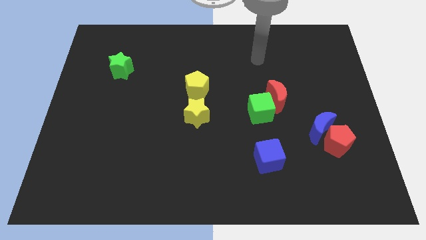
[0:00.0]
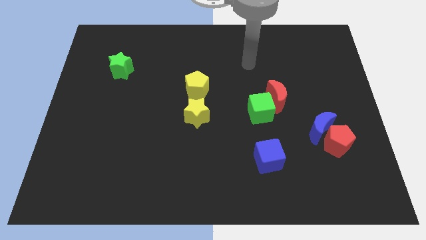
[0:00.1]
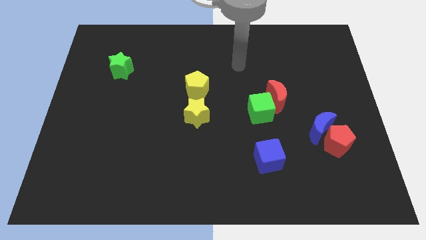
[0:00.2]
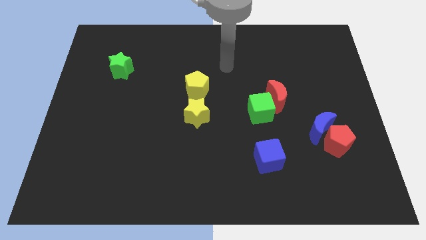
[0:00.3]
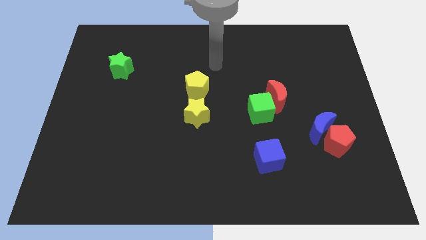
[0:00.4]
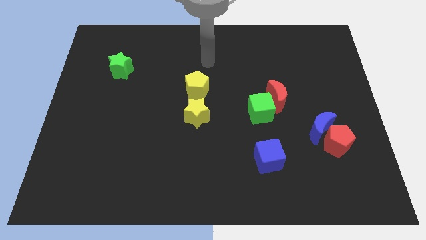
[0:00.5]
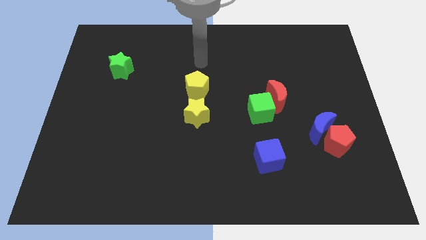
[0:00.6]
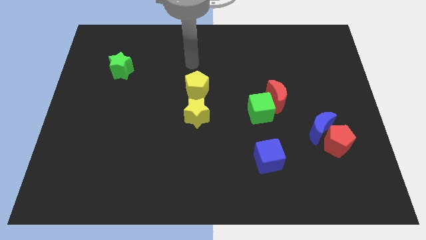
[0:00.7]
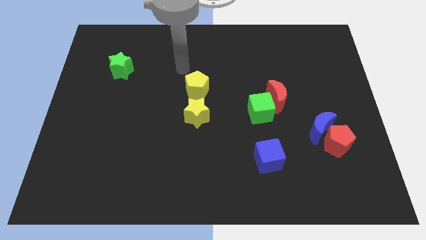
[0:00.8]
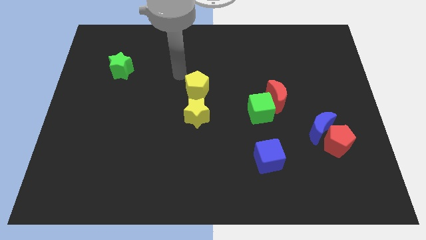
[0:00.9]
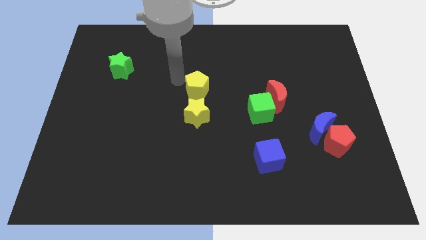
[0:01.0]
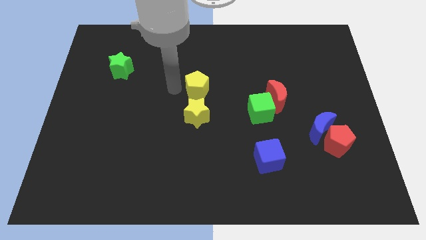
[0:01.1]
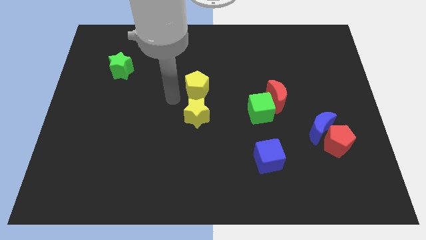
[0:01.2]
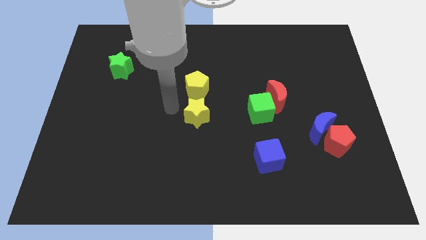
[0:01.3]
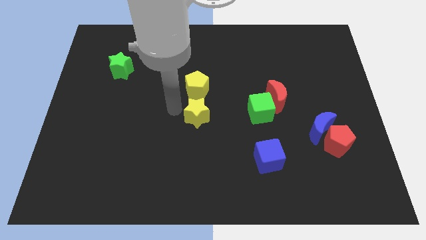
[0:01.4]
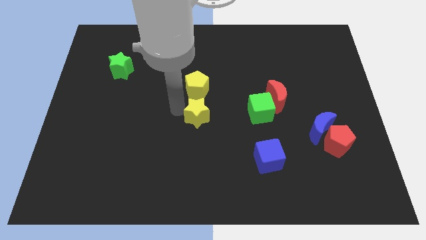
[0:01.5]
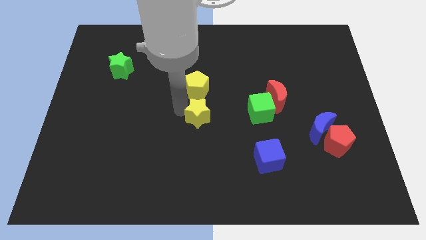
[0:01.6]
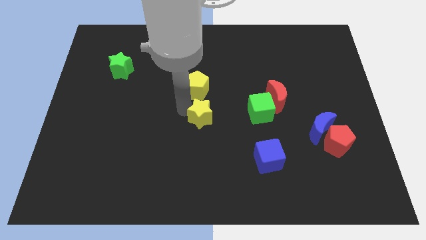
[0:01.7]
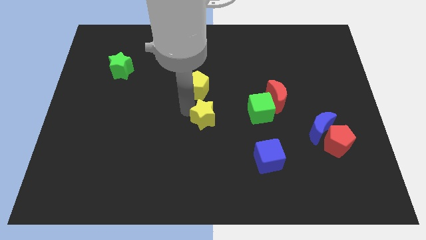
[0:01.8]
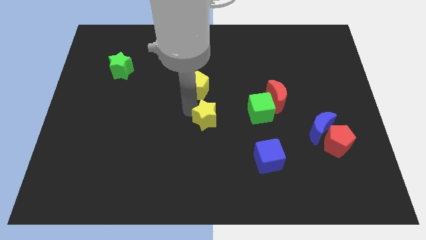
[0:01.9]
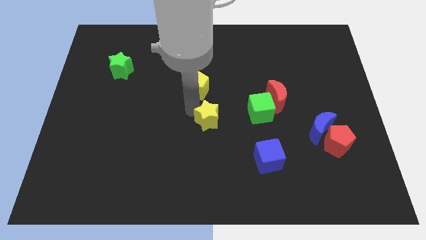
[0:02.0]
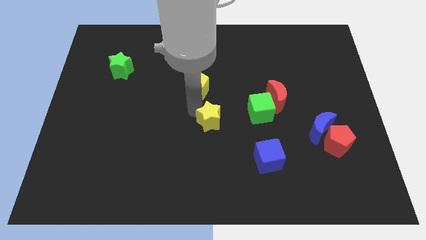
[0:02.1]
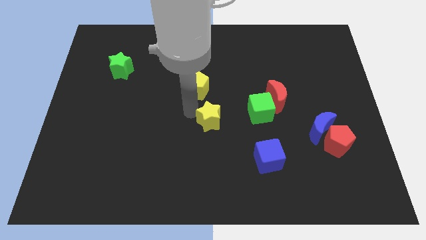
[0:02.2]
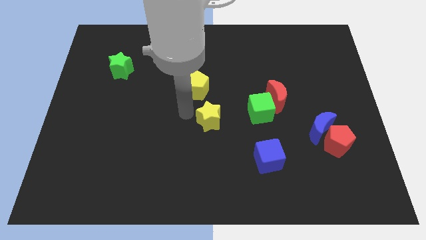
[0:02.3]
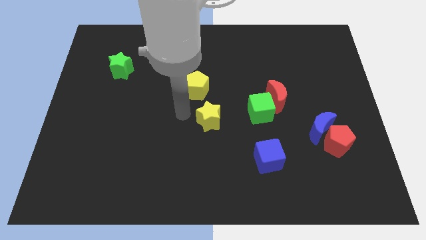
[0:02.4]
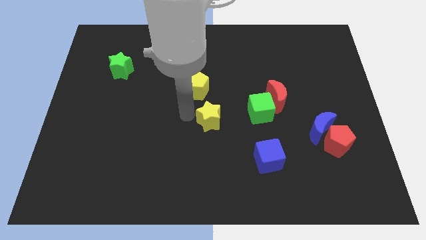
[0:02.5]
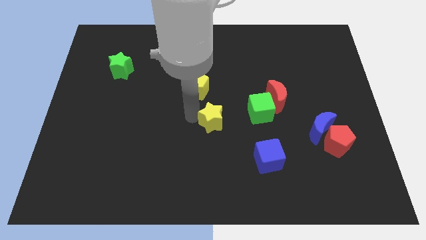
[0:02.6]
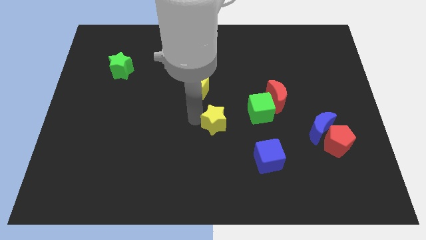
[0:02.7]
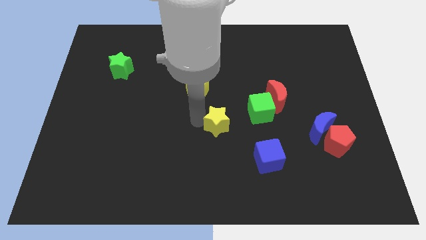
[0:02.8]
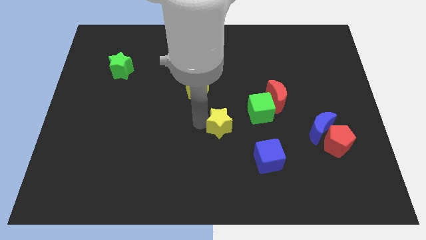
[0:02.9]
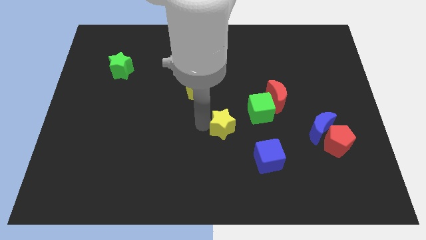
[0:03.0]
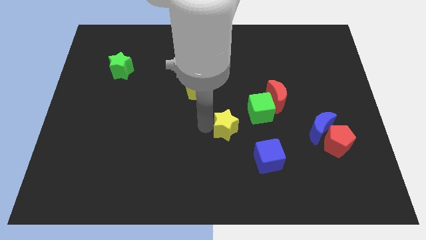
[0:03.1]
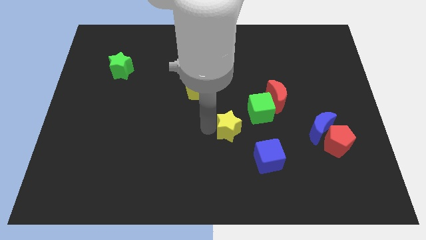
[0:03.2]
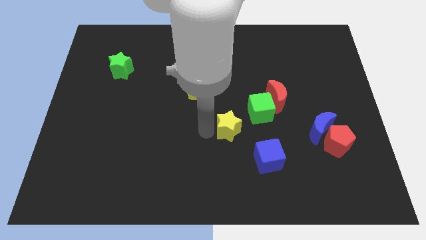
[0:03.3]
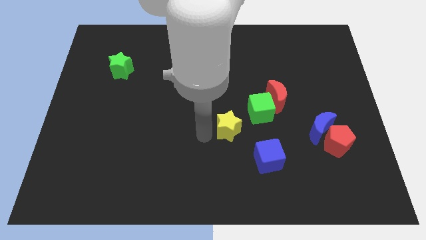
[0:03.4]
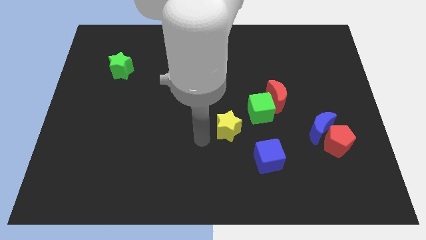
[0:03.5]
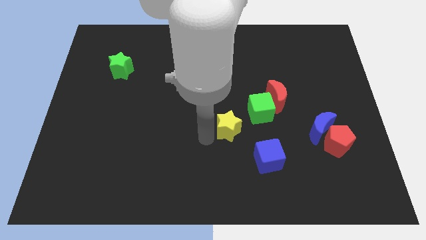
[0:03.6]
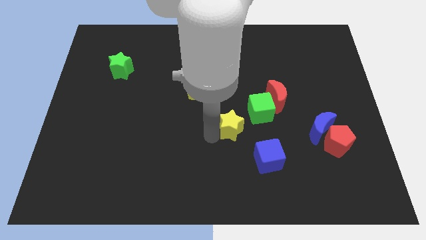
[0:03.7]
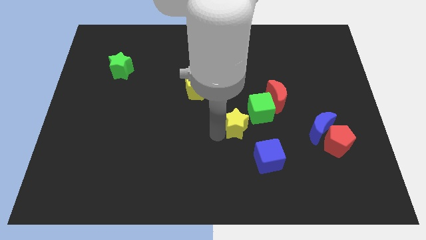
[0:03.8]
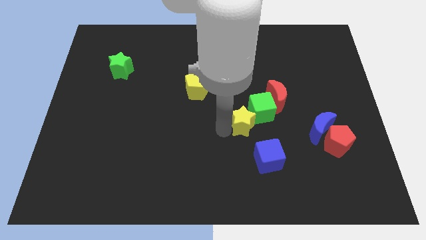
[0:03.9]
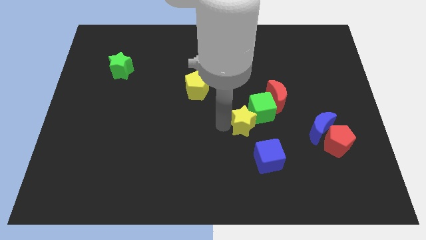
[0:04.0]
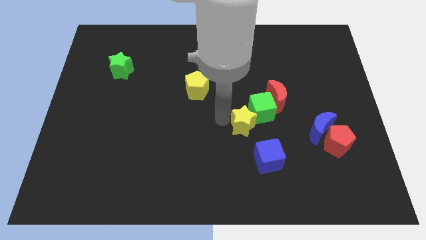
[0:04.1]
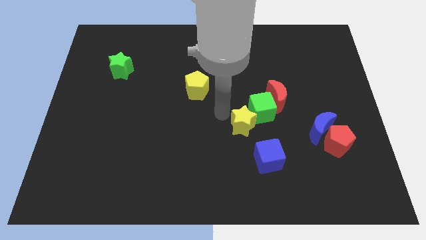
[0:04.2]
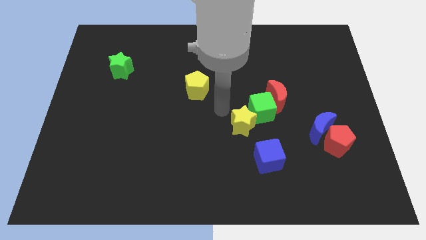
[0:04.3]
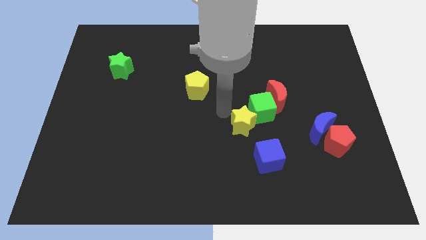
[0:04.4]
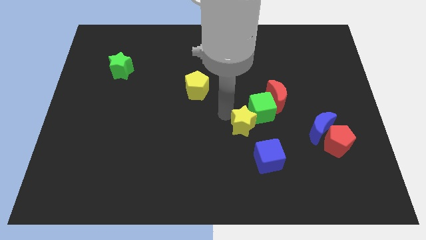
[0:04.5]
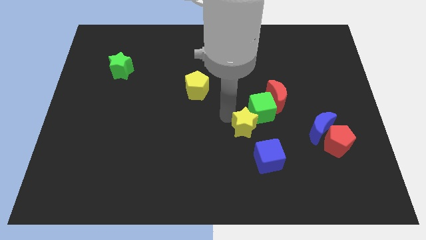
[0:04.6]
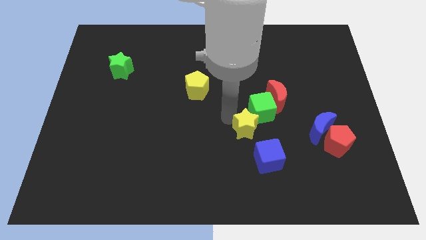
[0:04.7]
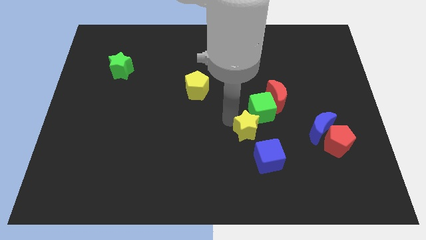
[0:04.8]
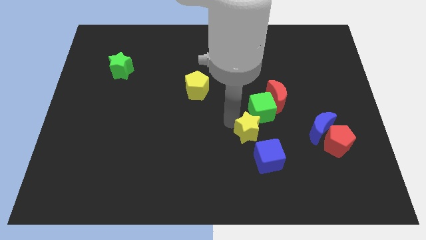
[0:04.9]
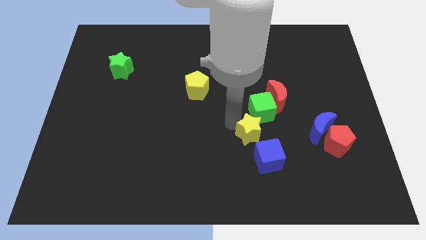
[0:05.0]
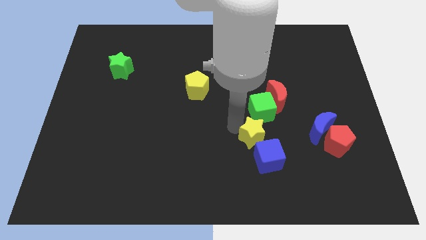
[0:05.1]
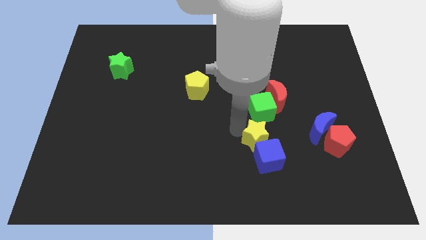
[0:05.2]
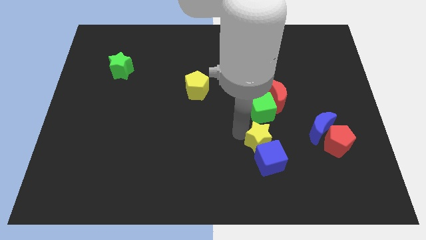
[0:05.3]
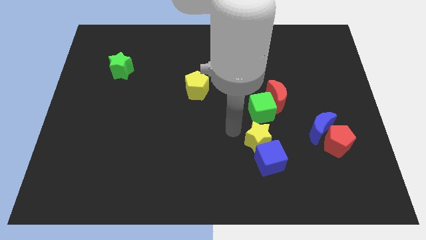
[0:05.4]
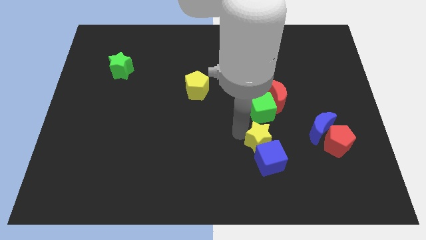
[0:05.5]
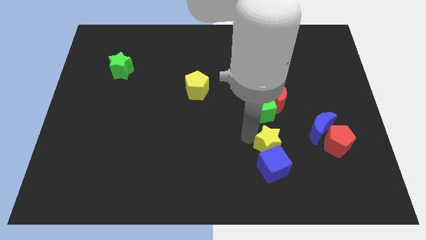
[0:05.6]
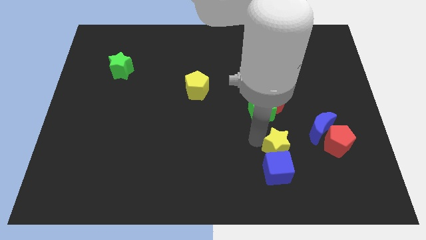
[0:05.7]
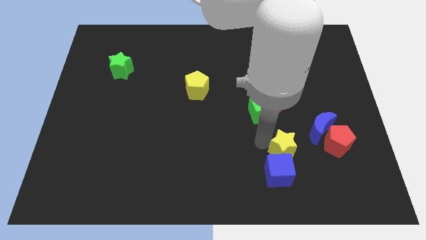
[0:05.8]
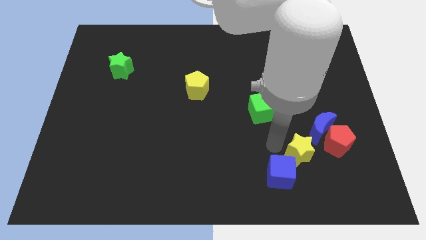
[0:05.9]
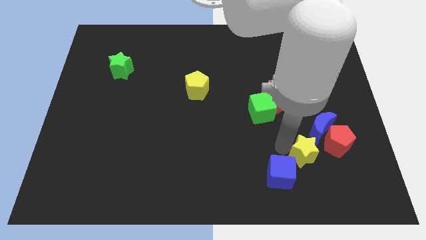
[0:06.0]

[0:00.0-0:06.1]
put the yellow star right of the blue cube

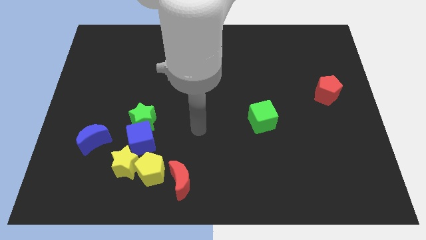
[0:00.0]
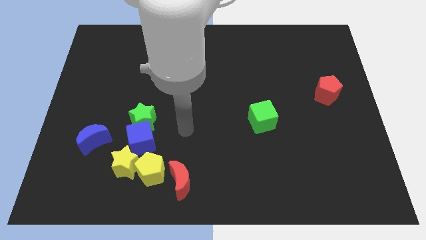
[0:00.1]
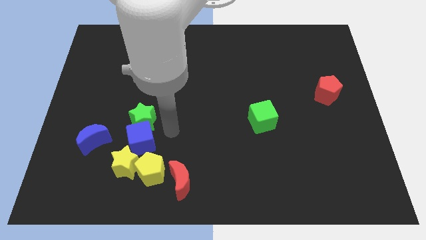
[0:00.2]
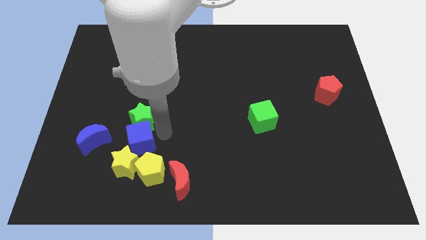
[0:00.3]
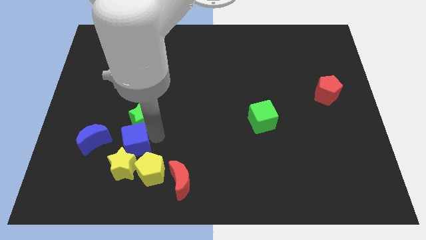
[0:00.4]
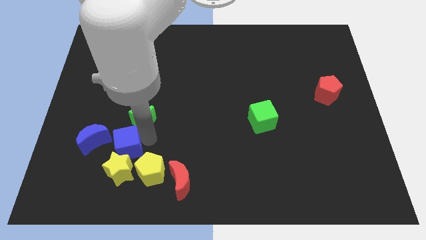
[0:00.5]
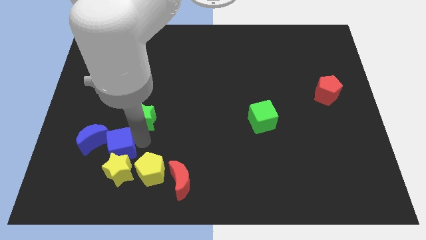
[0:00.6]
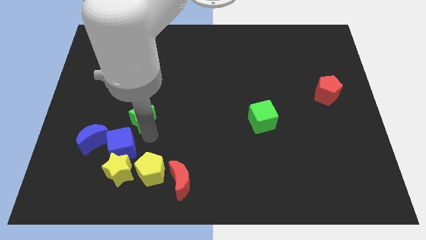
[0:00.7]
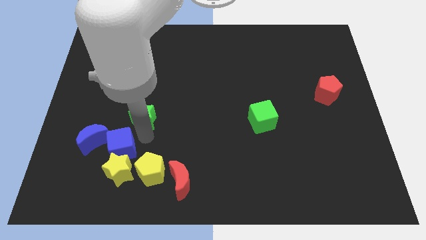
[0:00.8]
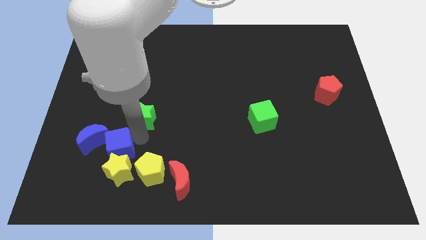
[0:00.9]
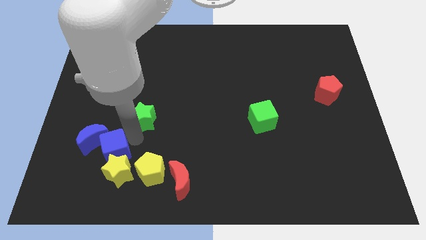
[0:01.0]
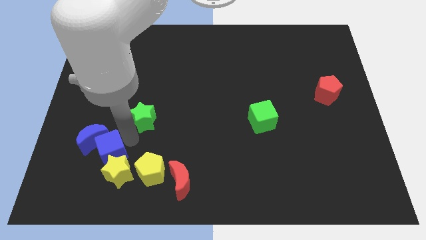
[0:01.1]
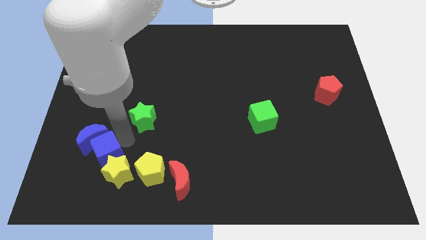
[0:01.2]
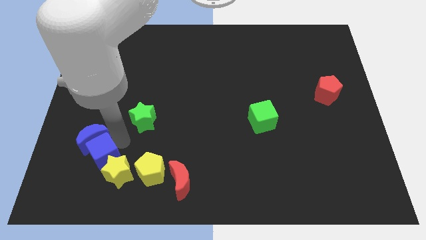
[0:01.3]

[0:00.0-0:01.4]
put the blue cube just left of the yellow star
